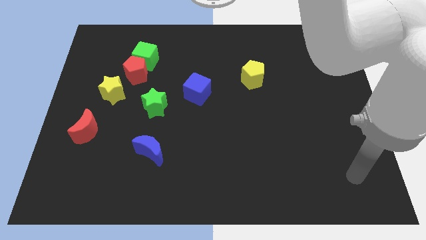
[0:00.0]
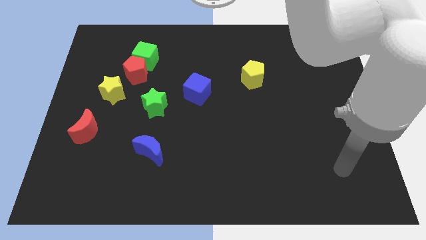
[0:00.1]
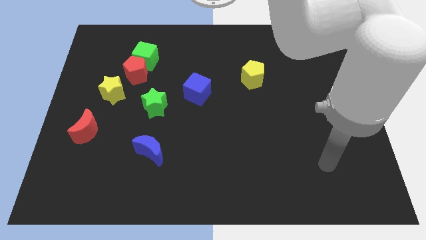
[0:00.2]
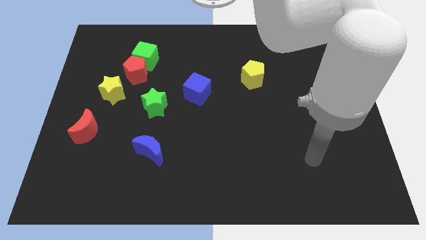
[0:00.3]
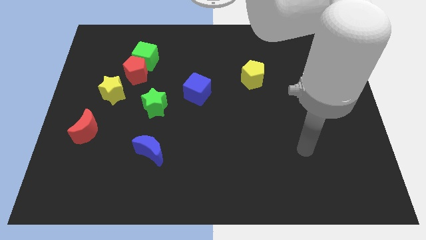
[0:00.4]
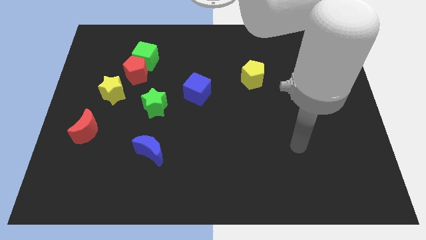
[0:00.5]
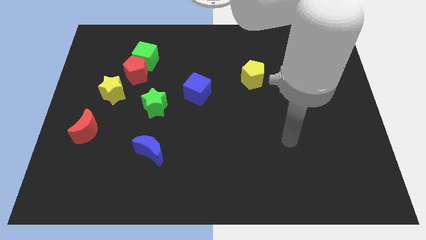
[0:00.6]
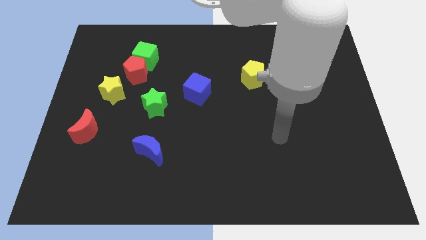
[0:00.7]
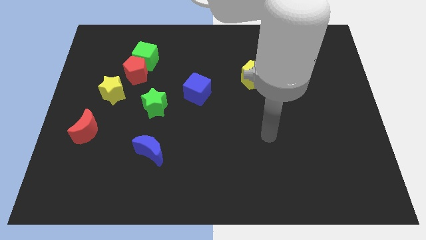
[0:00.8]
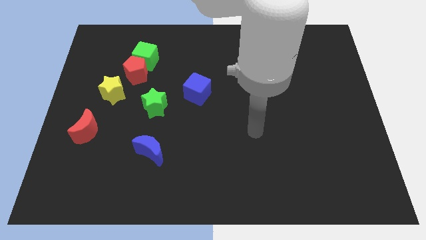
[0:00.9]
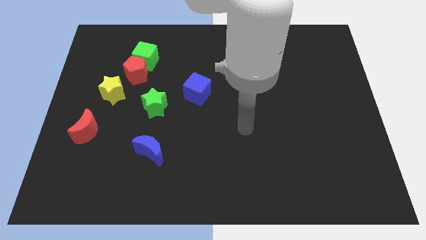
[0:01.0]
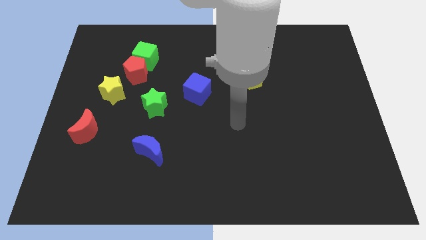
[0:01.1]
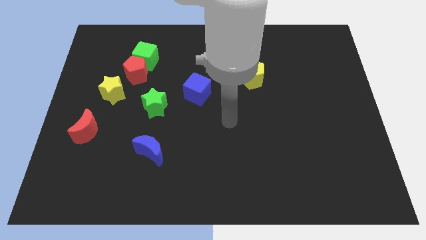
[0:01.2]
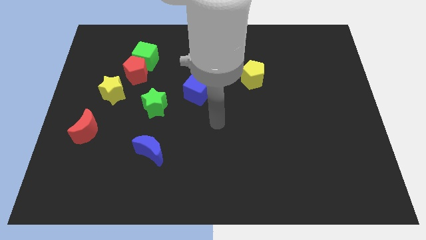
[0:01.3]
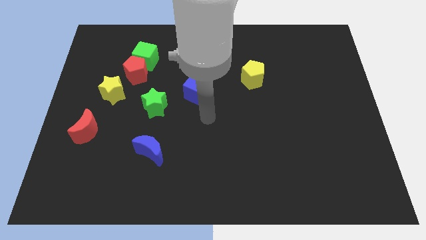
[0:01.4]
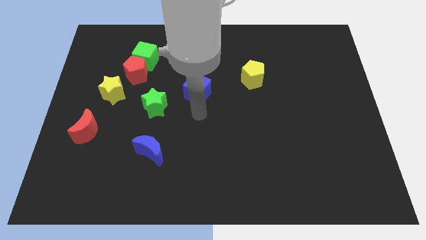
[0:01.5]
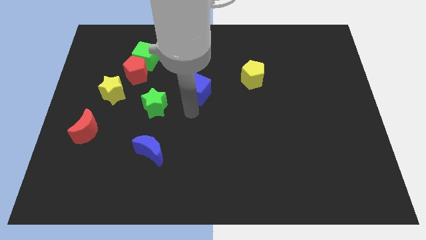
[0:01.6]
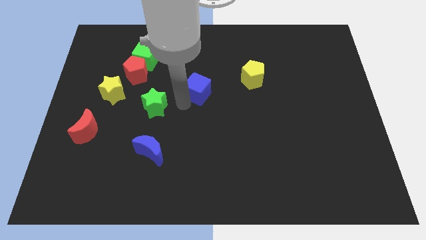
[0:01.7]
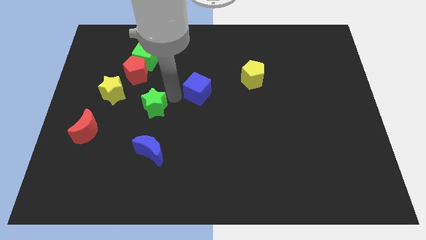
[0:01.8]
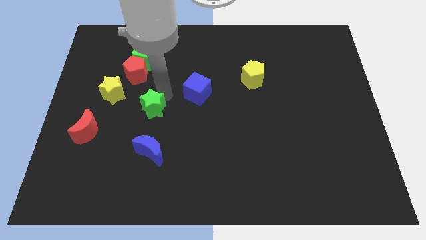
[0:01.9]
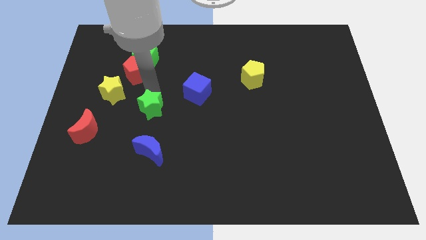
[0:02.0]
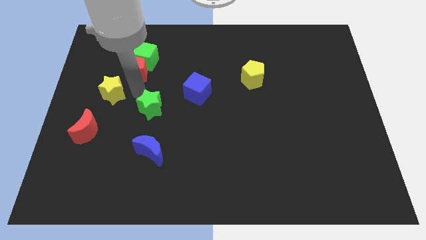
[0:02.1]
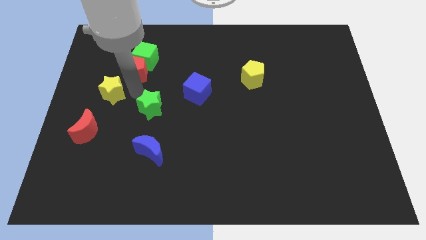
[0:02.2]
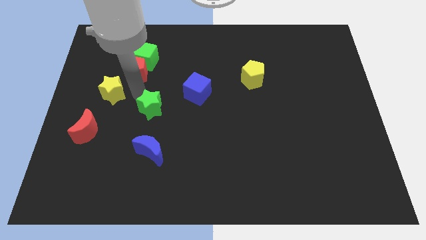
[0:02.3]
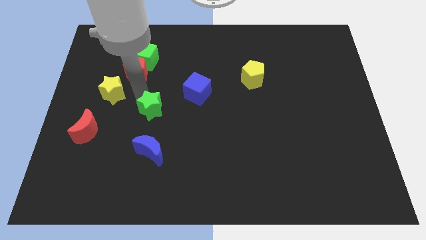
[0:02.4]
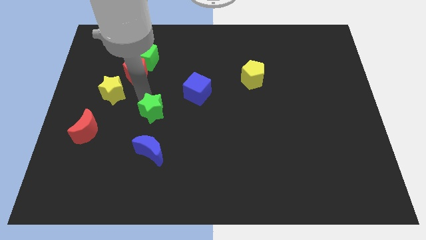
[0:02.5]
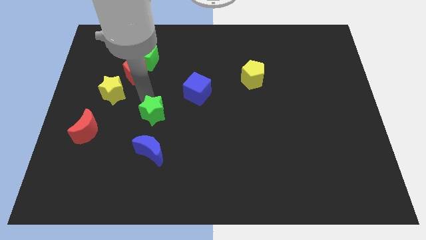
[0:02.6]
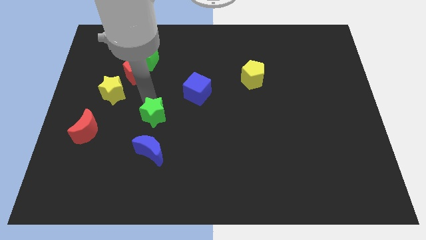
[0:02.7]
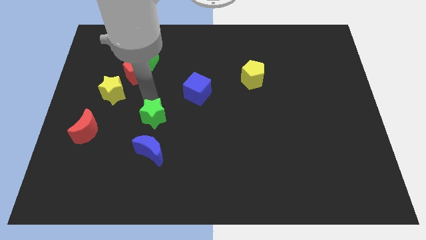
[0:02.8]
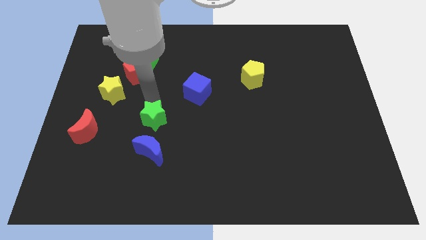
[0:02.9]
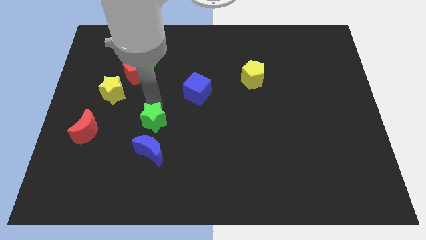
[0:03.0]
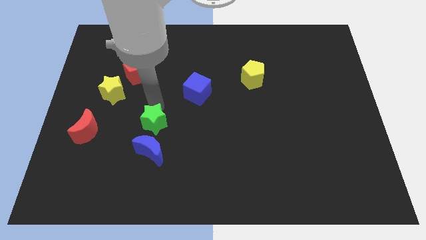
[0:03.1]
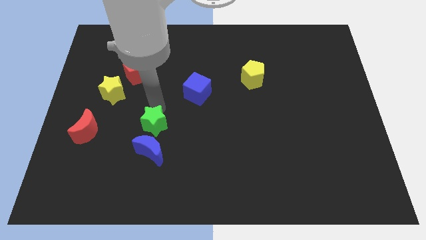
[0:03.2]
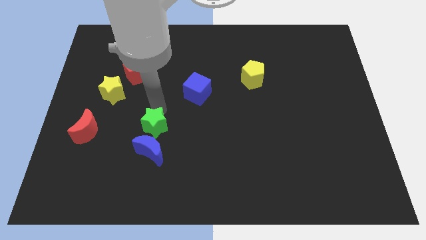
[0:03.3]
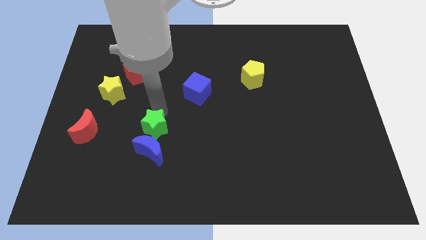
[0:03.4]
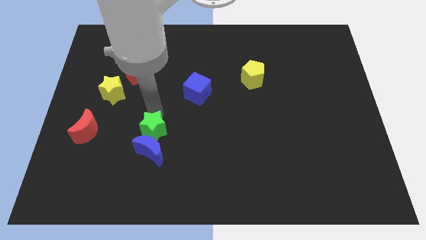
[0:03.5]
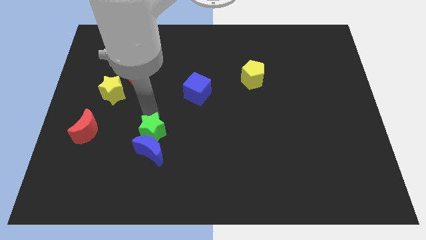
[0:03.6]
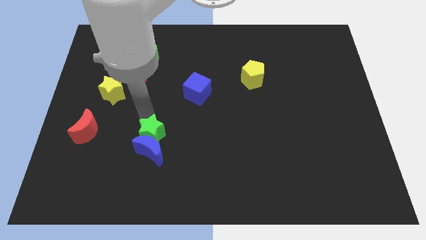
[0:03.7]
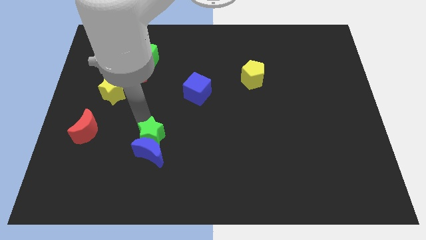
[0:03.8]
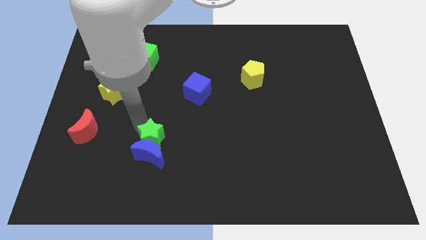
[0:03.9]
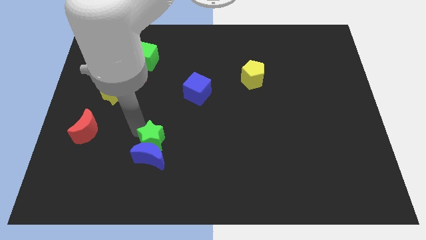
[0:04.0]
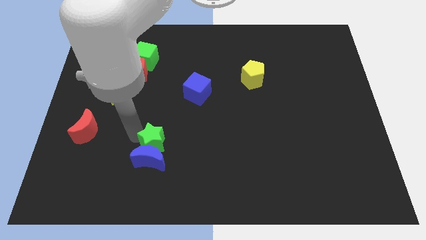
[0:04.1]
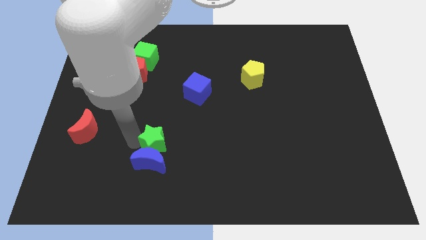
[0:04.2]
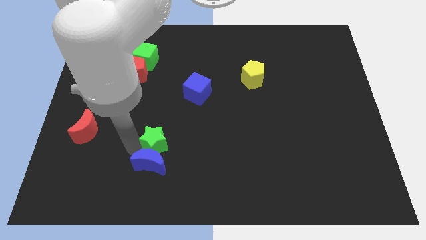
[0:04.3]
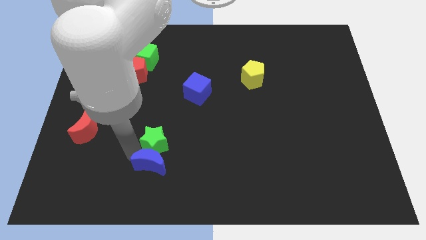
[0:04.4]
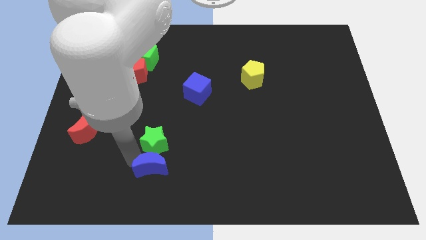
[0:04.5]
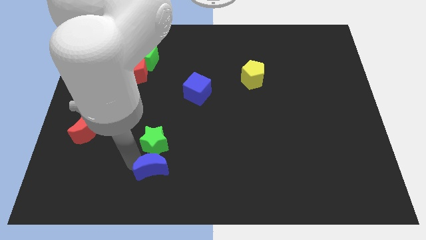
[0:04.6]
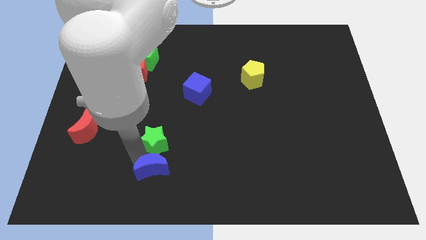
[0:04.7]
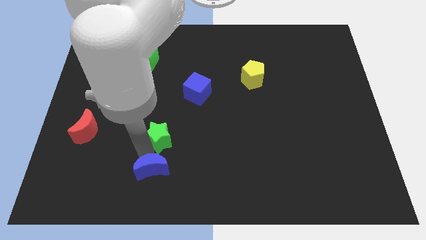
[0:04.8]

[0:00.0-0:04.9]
move the green star slightly downwards and right

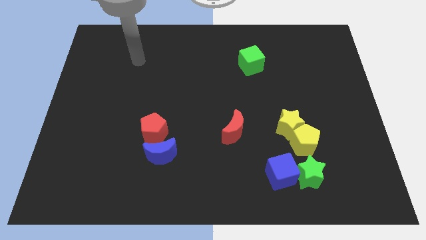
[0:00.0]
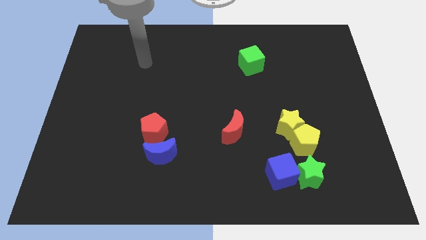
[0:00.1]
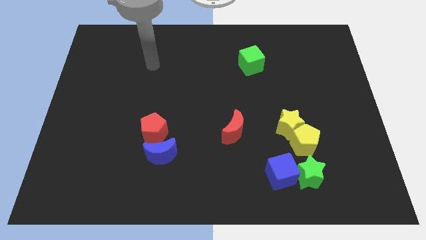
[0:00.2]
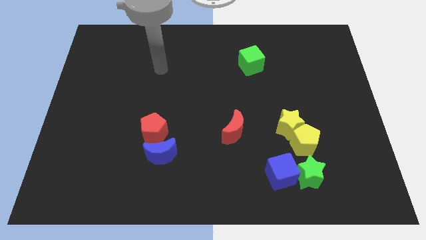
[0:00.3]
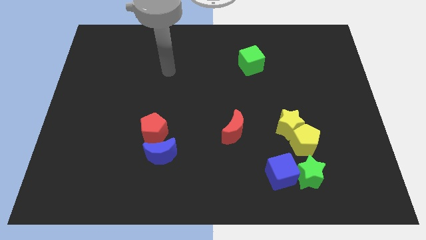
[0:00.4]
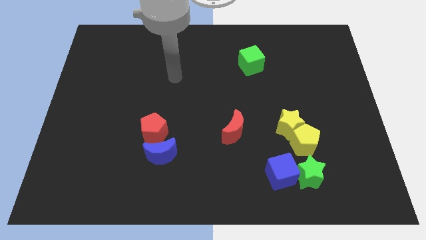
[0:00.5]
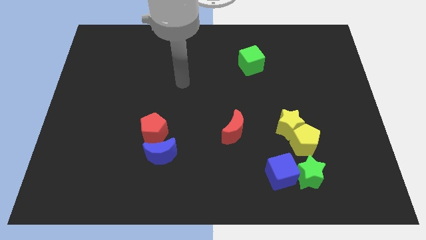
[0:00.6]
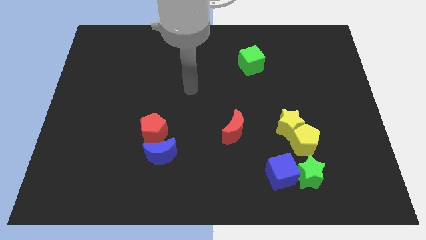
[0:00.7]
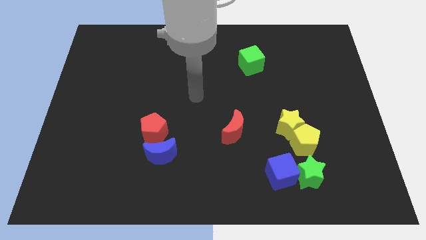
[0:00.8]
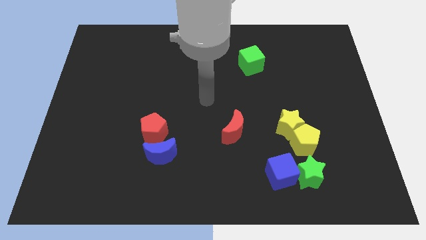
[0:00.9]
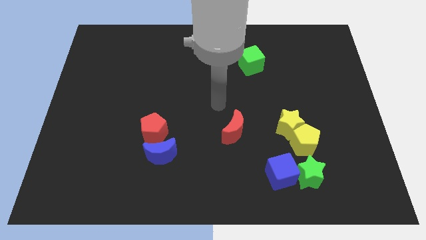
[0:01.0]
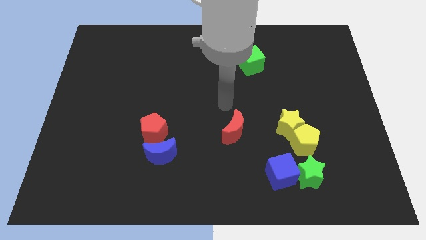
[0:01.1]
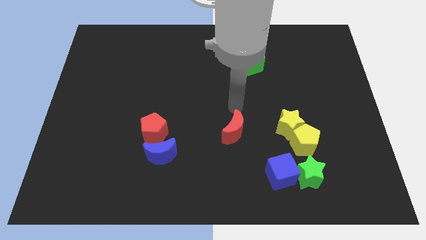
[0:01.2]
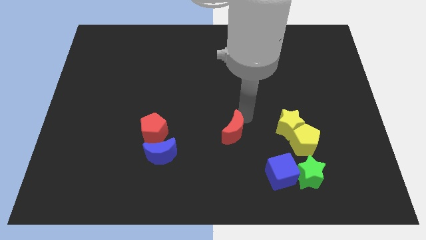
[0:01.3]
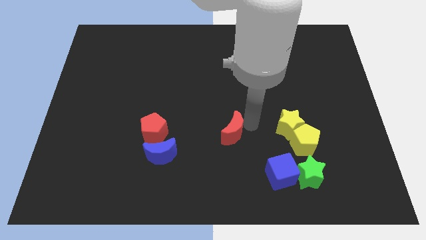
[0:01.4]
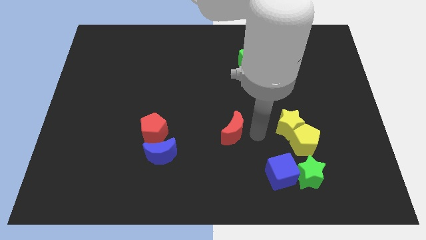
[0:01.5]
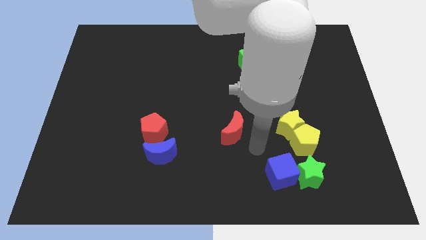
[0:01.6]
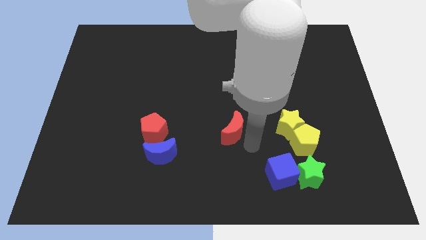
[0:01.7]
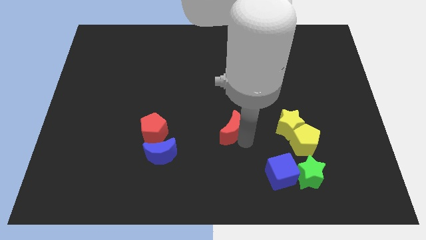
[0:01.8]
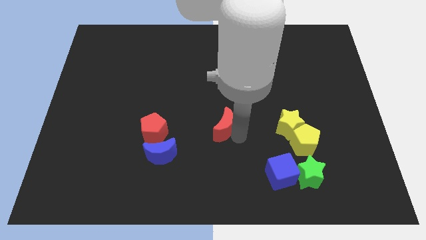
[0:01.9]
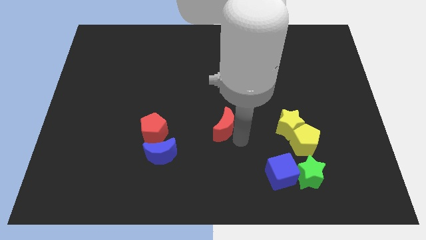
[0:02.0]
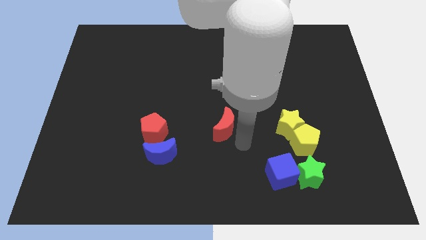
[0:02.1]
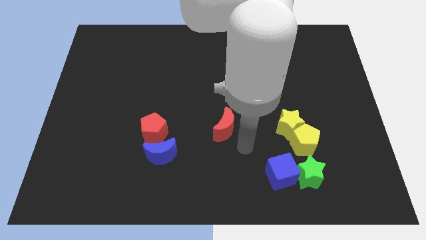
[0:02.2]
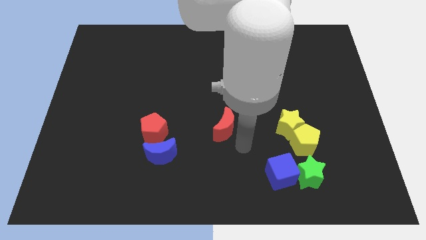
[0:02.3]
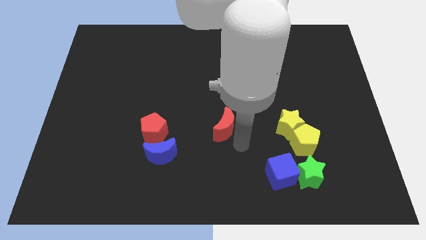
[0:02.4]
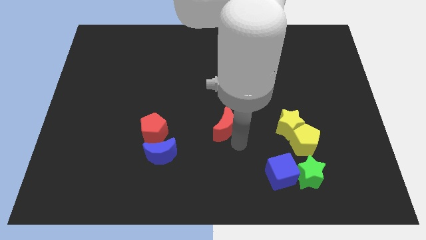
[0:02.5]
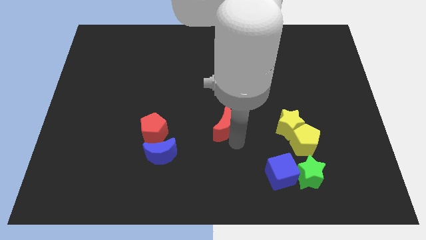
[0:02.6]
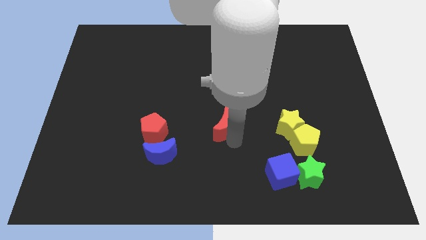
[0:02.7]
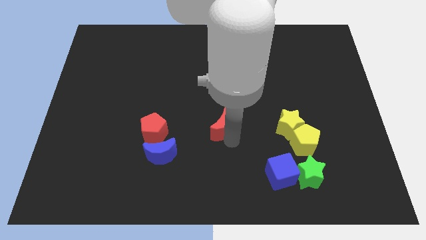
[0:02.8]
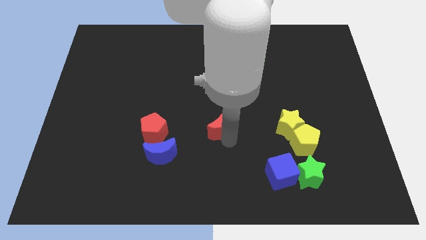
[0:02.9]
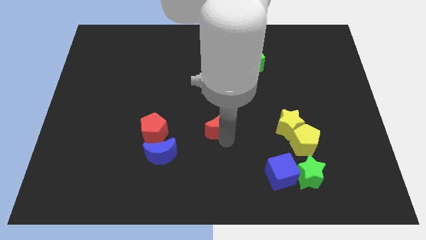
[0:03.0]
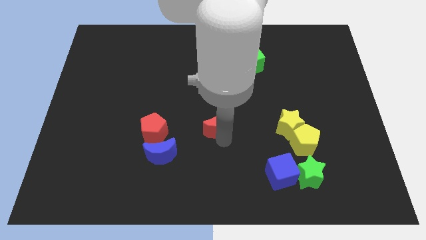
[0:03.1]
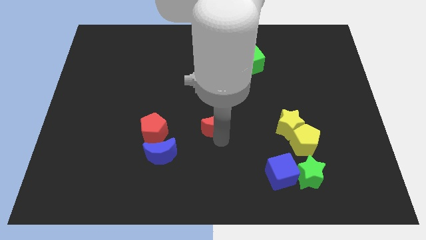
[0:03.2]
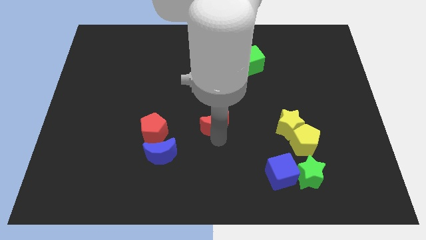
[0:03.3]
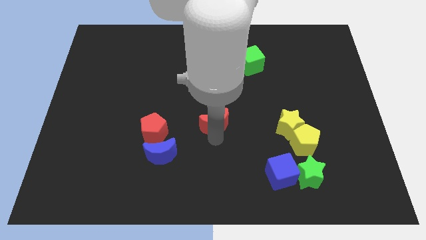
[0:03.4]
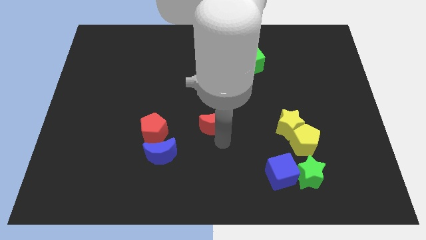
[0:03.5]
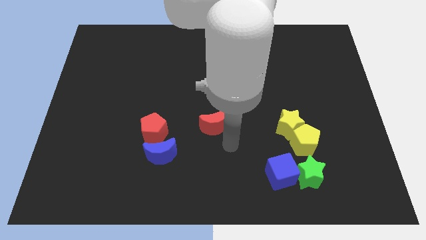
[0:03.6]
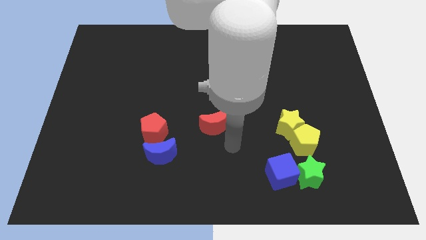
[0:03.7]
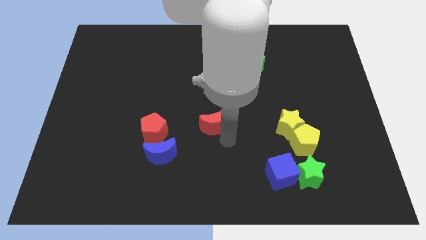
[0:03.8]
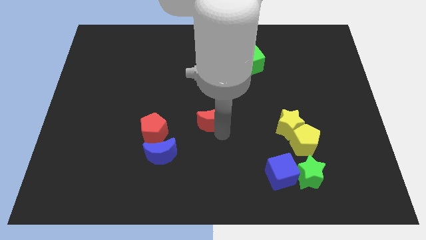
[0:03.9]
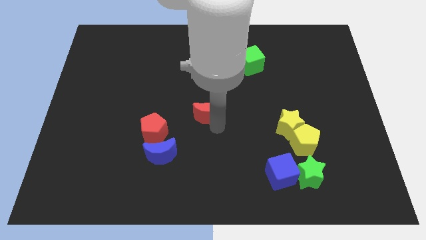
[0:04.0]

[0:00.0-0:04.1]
push the red moon upwards and then left slightly
